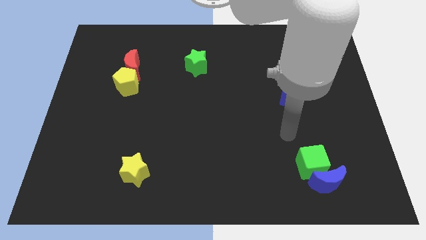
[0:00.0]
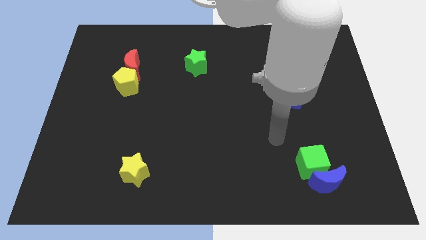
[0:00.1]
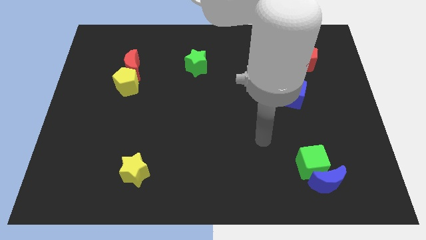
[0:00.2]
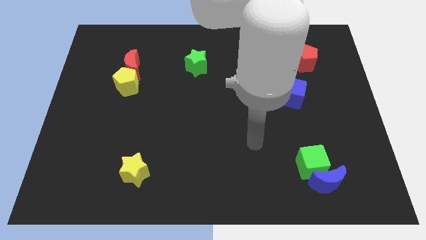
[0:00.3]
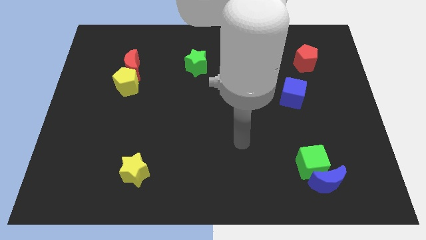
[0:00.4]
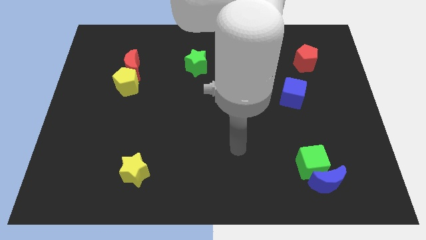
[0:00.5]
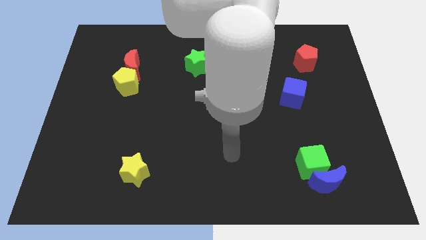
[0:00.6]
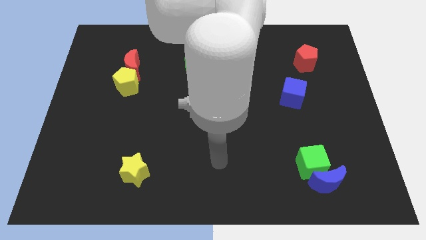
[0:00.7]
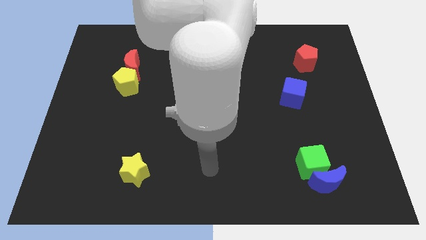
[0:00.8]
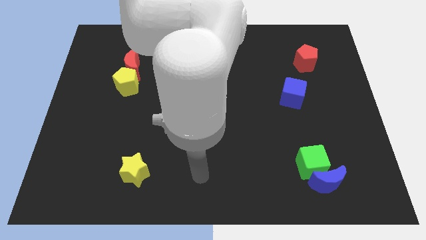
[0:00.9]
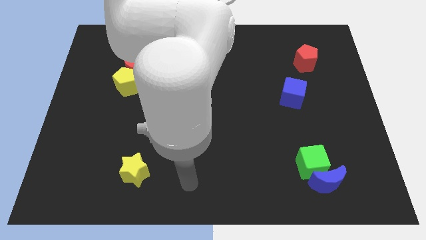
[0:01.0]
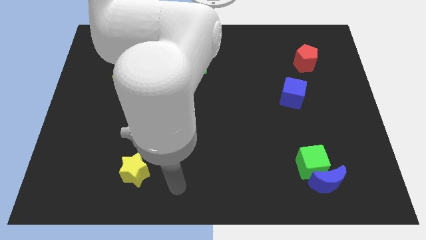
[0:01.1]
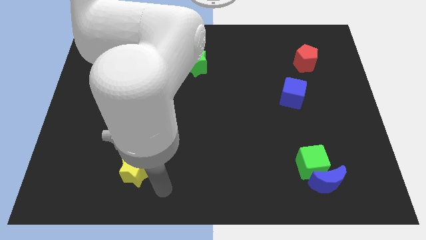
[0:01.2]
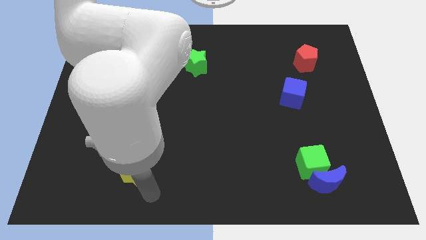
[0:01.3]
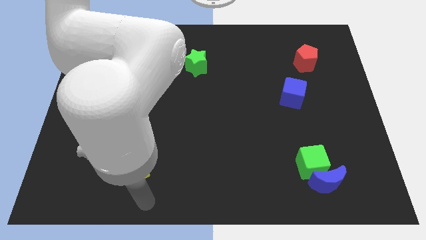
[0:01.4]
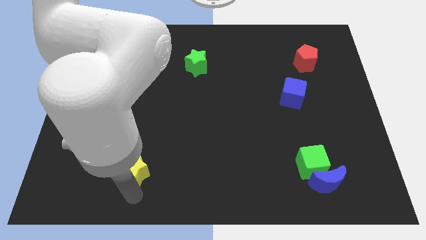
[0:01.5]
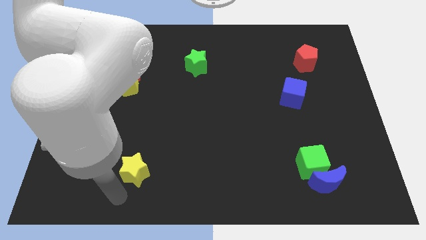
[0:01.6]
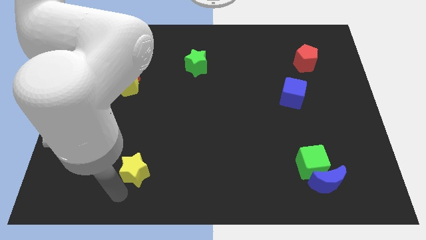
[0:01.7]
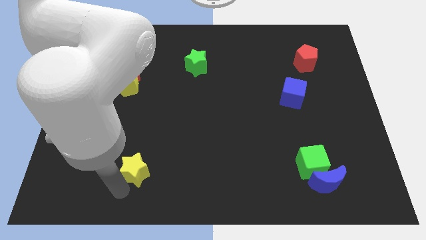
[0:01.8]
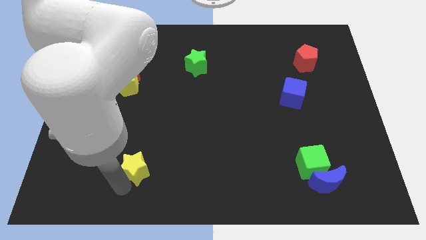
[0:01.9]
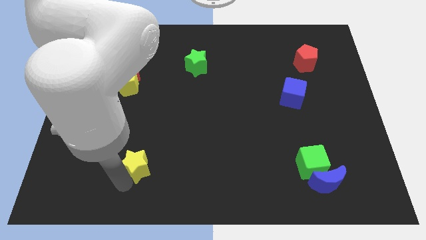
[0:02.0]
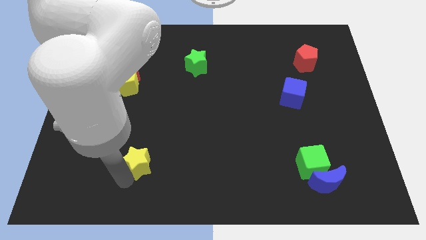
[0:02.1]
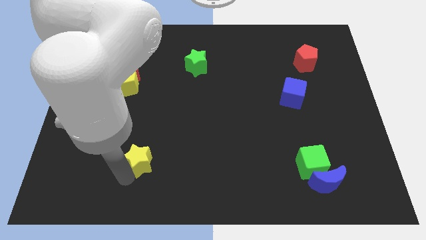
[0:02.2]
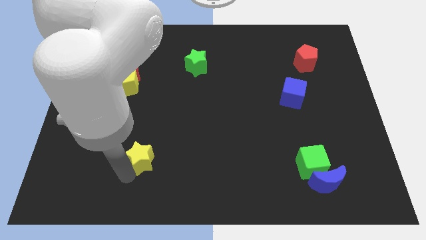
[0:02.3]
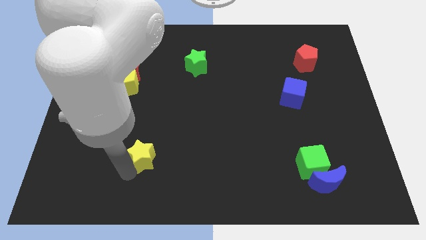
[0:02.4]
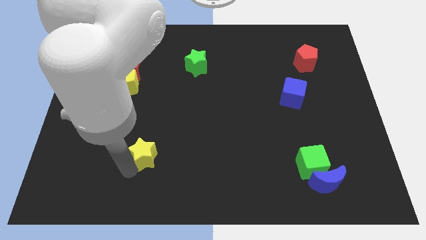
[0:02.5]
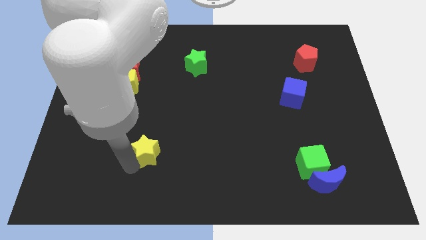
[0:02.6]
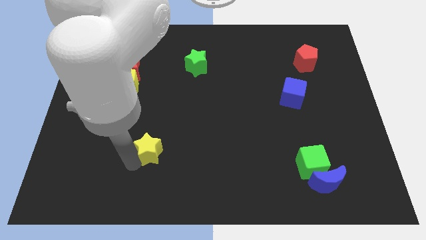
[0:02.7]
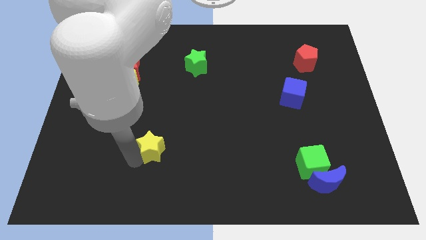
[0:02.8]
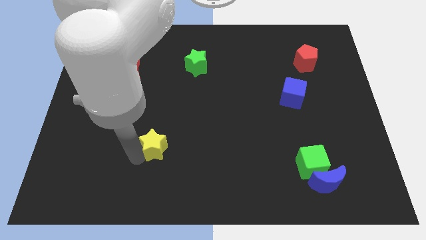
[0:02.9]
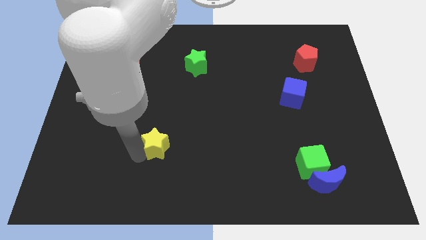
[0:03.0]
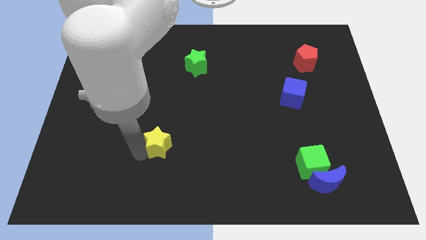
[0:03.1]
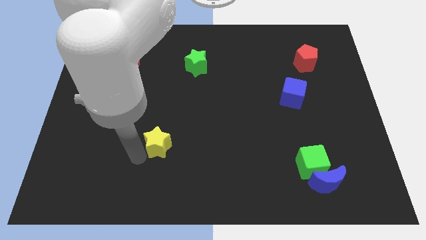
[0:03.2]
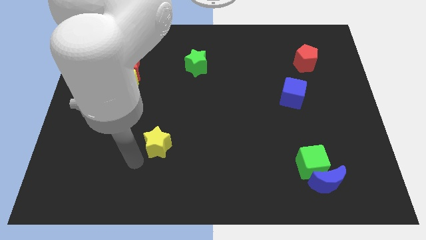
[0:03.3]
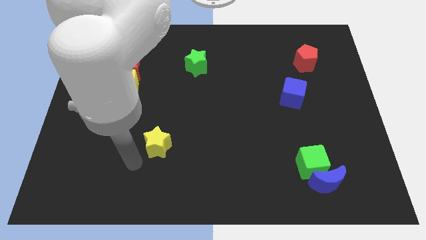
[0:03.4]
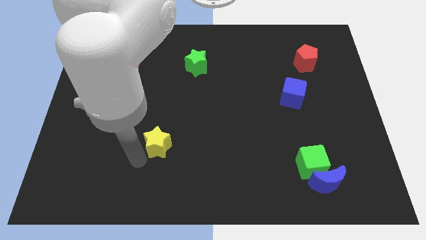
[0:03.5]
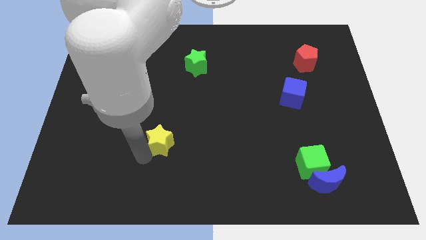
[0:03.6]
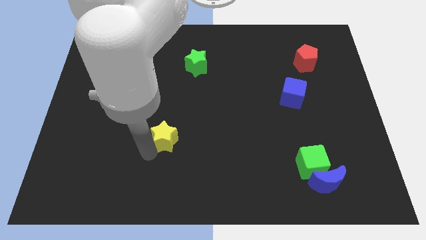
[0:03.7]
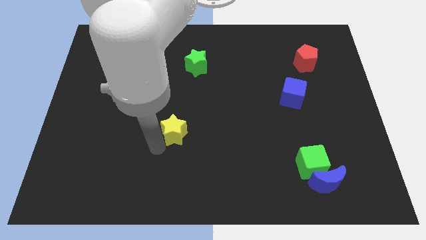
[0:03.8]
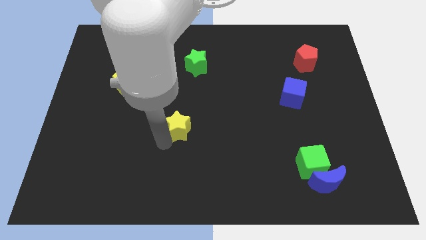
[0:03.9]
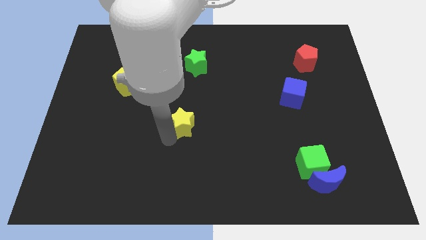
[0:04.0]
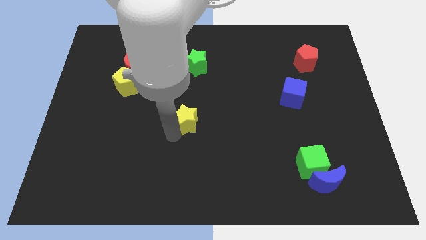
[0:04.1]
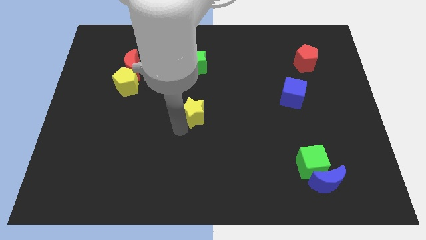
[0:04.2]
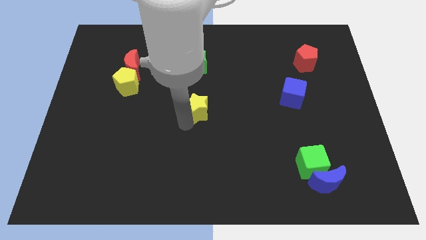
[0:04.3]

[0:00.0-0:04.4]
push the yellow star up and to the right

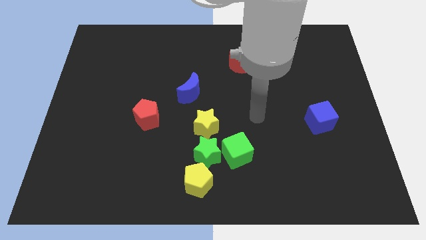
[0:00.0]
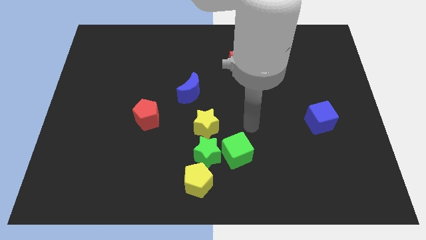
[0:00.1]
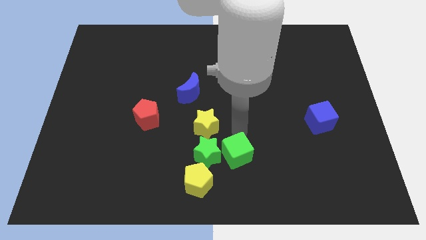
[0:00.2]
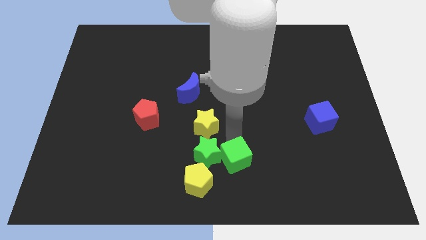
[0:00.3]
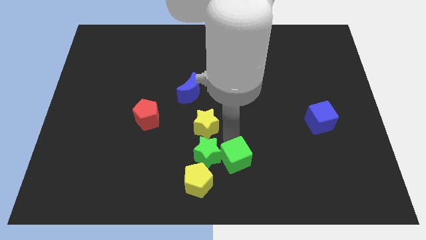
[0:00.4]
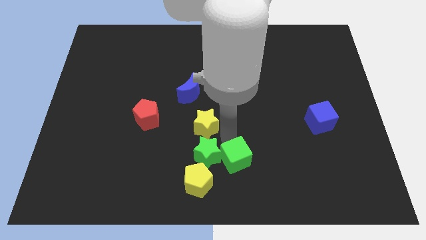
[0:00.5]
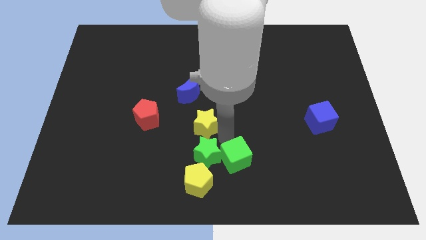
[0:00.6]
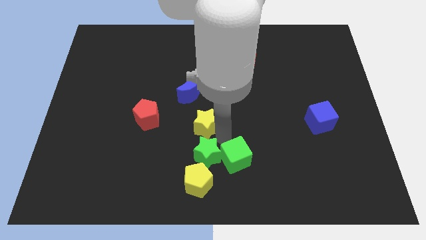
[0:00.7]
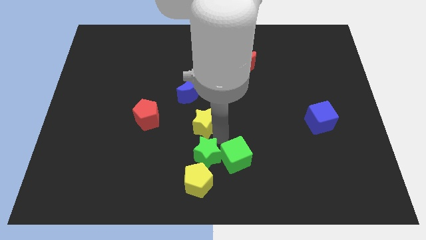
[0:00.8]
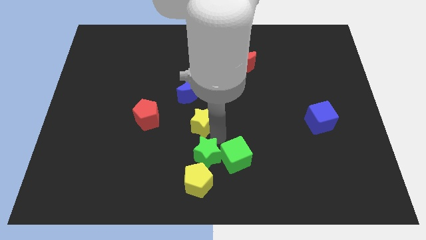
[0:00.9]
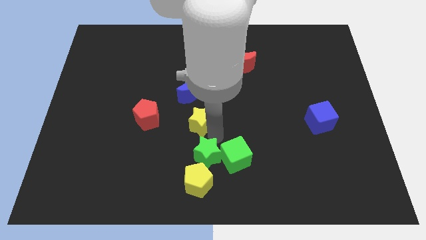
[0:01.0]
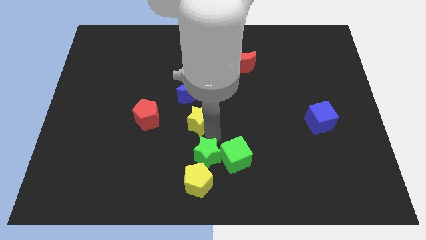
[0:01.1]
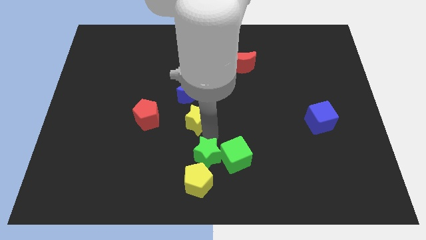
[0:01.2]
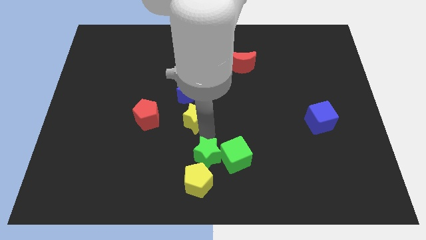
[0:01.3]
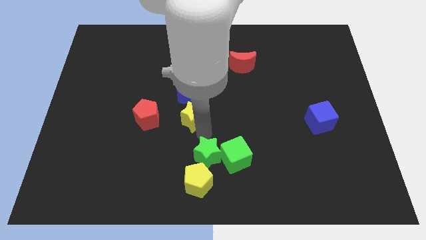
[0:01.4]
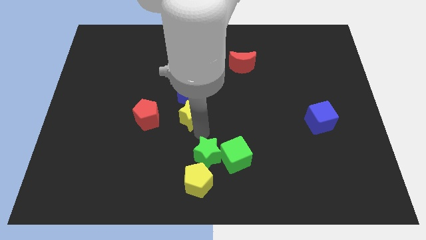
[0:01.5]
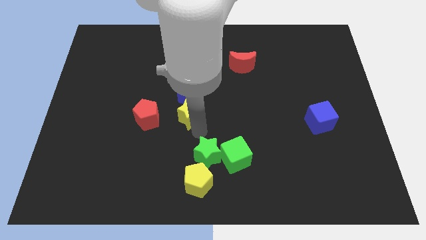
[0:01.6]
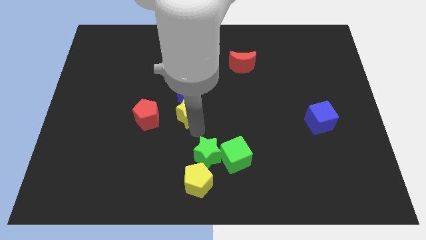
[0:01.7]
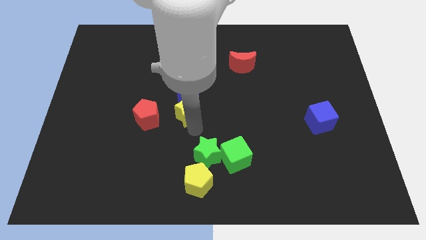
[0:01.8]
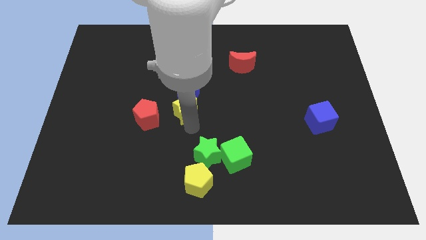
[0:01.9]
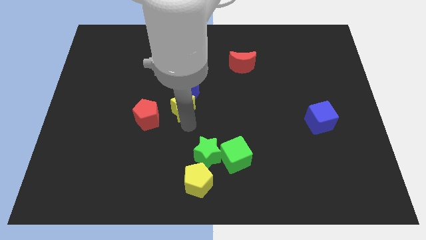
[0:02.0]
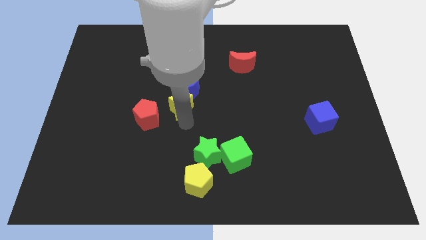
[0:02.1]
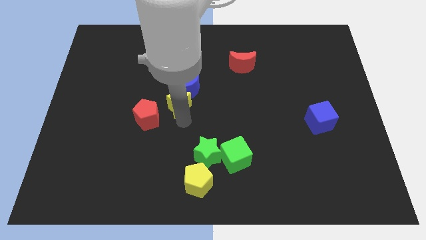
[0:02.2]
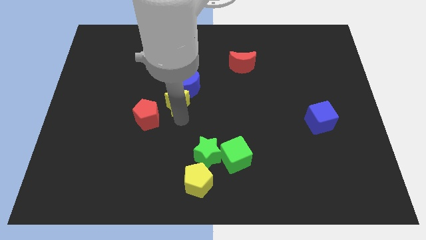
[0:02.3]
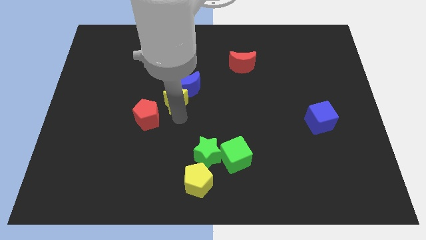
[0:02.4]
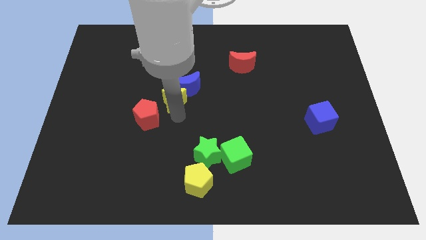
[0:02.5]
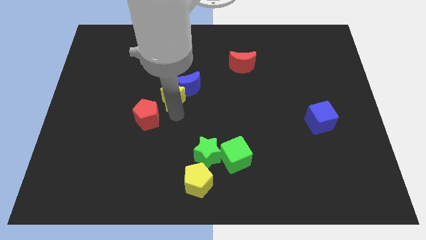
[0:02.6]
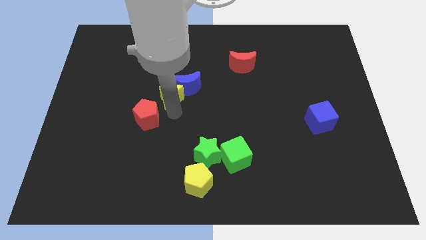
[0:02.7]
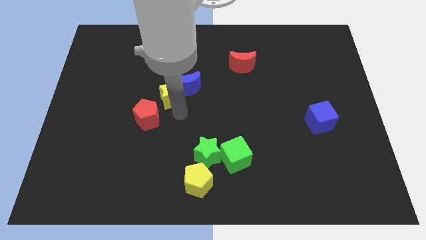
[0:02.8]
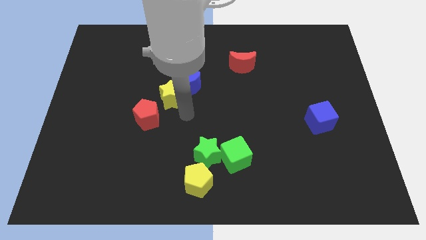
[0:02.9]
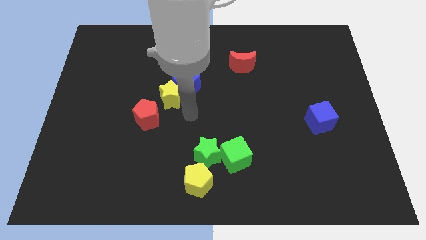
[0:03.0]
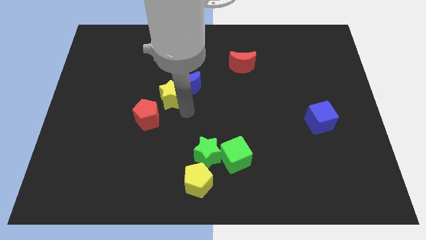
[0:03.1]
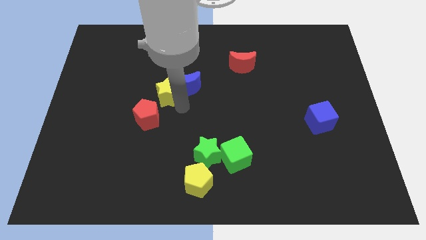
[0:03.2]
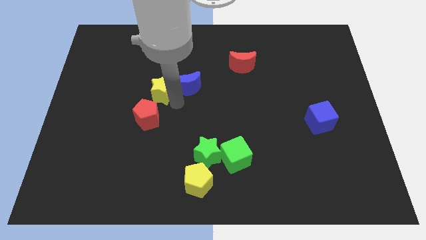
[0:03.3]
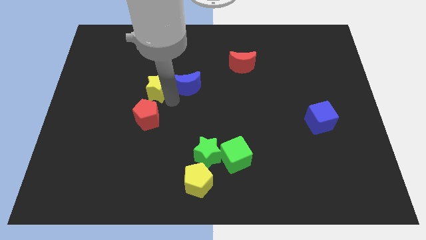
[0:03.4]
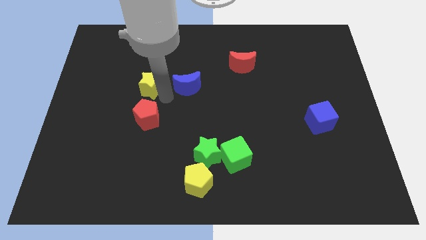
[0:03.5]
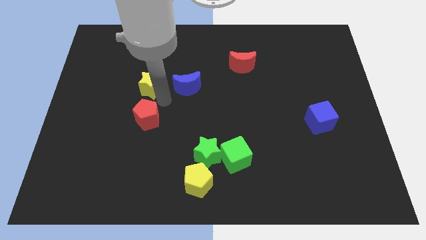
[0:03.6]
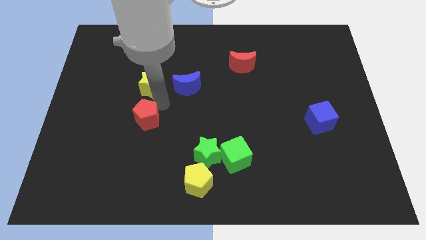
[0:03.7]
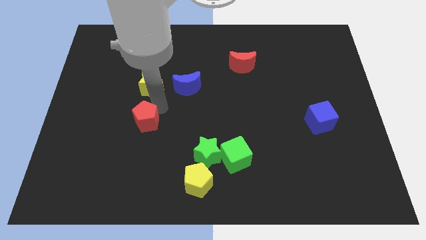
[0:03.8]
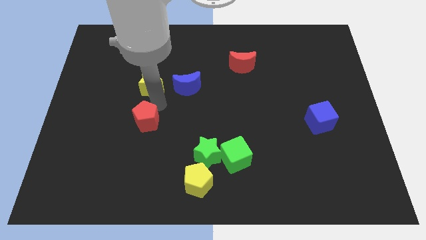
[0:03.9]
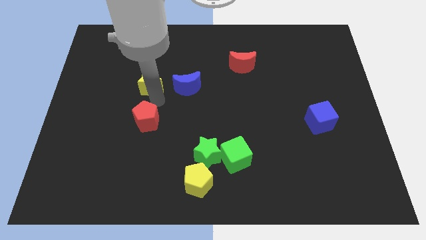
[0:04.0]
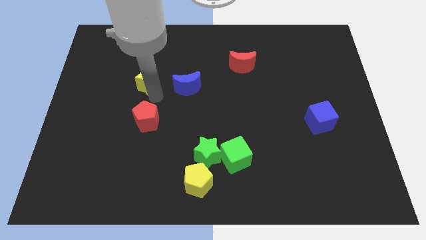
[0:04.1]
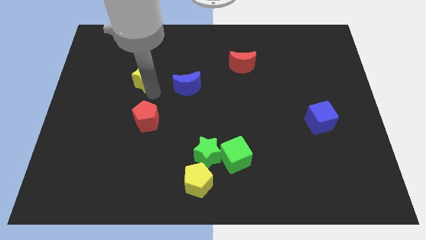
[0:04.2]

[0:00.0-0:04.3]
slide the yellow star upwards and left
